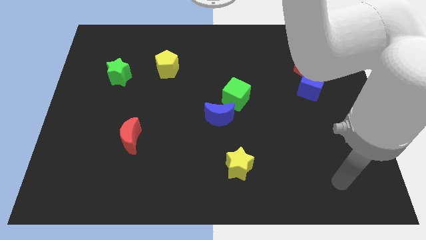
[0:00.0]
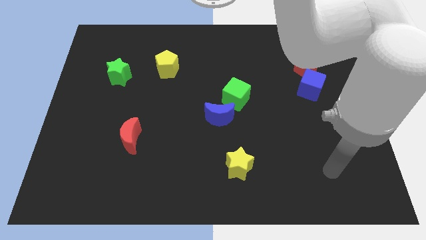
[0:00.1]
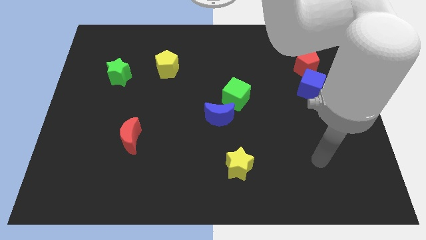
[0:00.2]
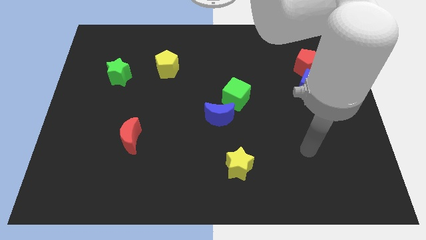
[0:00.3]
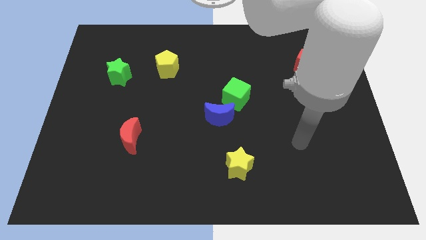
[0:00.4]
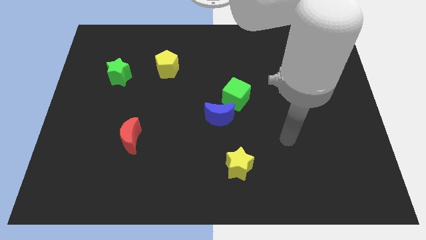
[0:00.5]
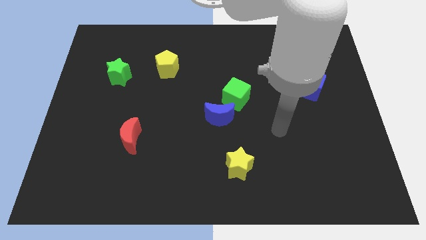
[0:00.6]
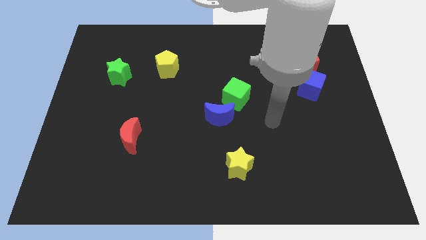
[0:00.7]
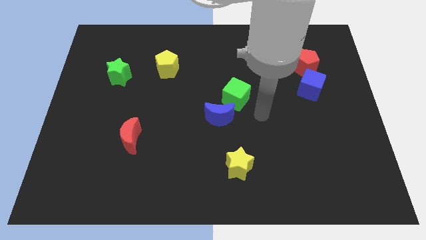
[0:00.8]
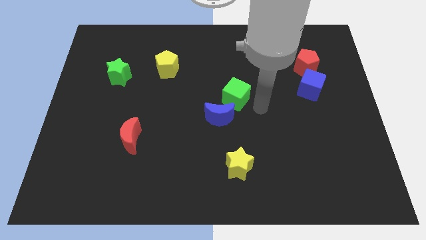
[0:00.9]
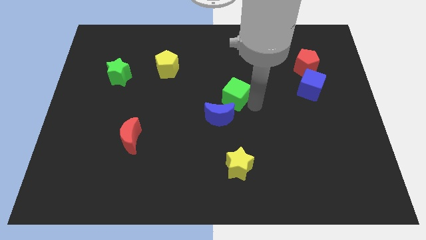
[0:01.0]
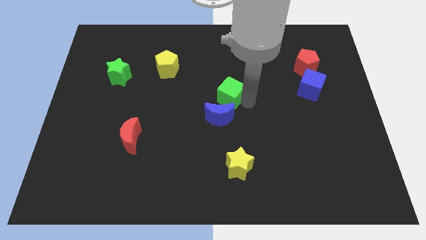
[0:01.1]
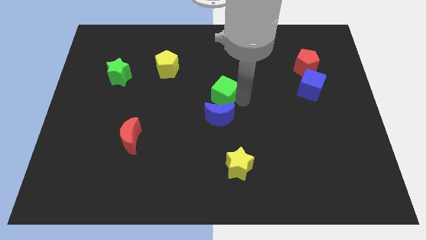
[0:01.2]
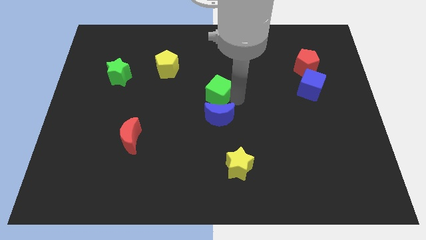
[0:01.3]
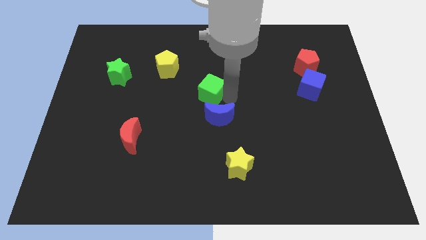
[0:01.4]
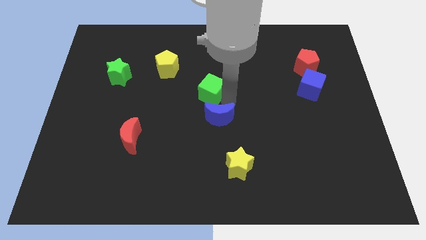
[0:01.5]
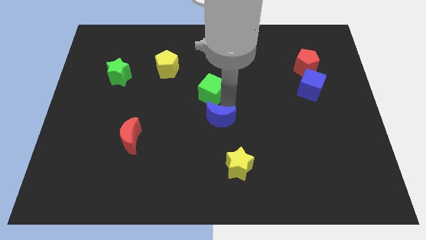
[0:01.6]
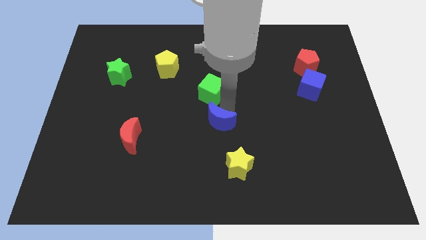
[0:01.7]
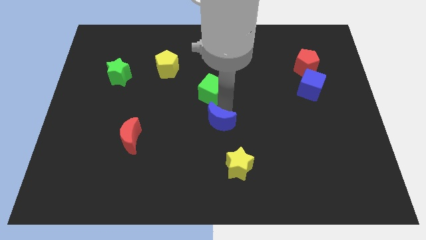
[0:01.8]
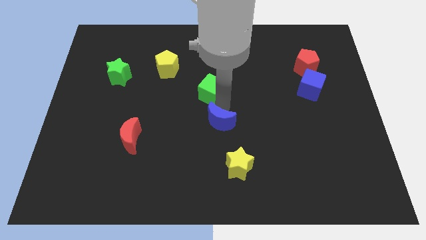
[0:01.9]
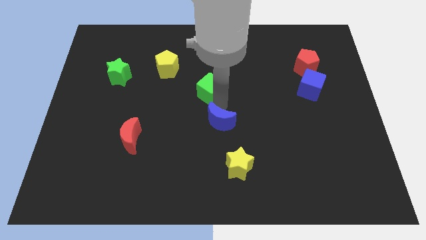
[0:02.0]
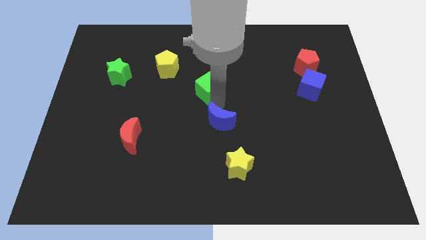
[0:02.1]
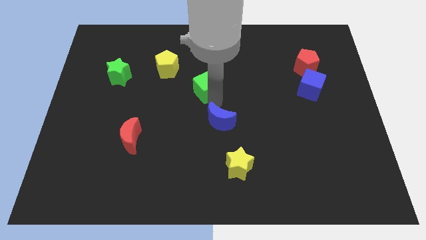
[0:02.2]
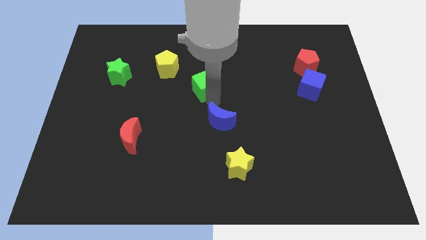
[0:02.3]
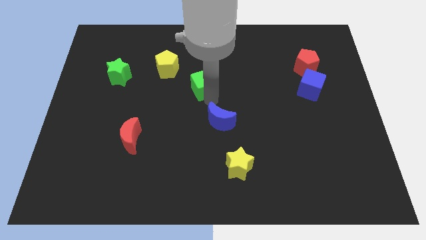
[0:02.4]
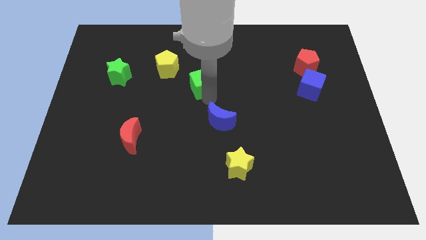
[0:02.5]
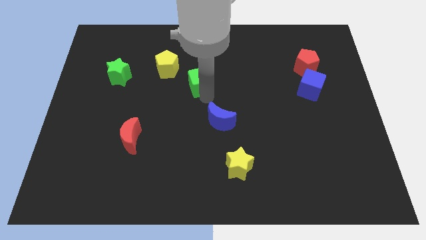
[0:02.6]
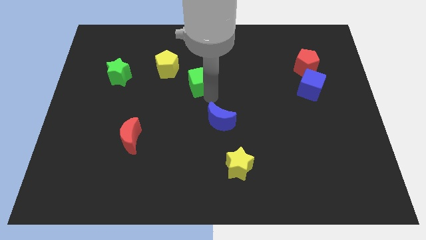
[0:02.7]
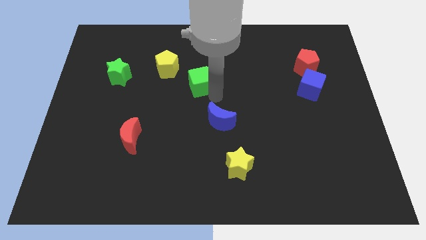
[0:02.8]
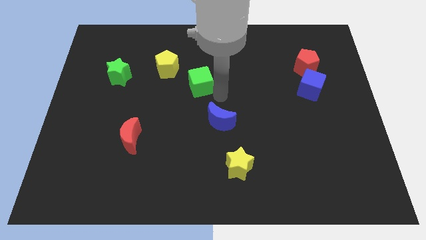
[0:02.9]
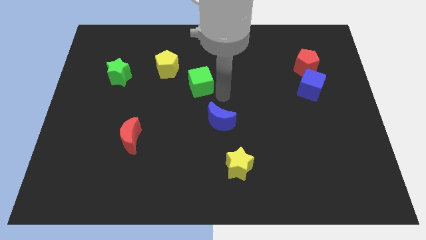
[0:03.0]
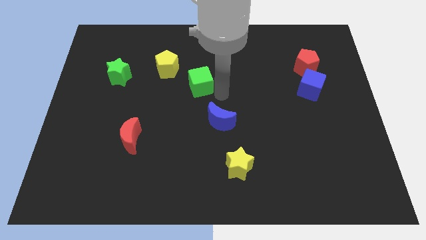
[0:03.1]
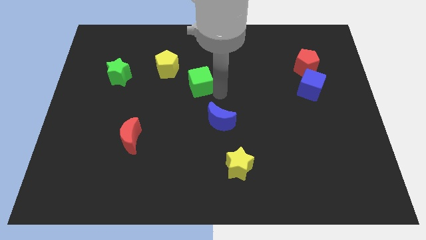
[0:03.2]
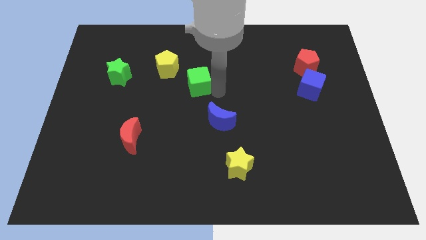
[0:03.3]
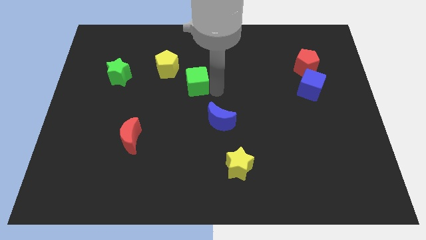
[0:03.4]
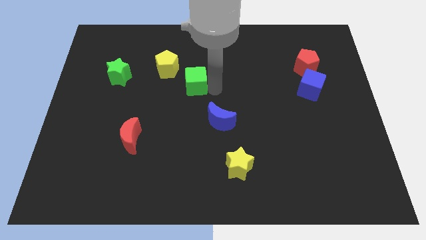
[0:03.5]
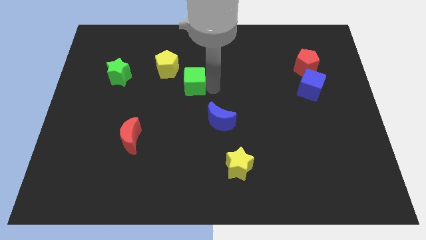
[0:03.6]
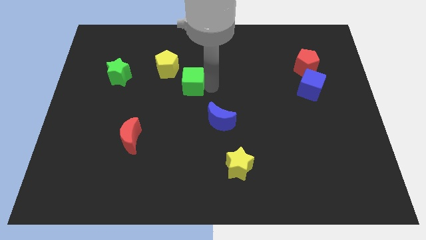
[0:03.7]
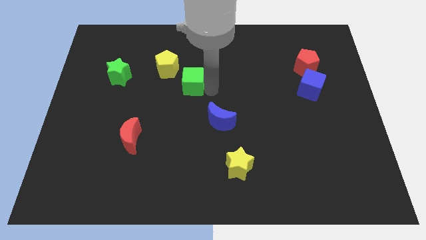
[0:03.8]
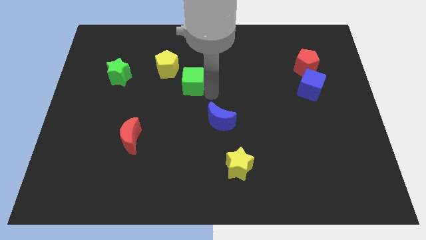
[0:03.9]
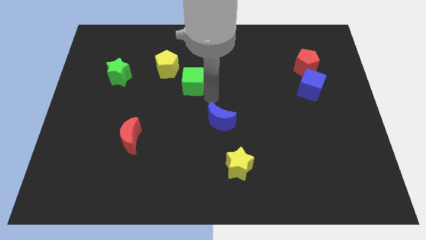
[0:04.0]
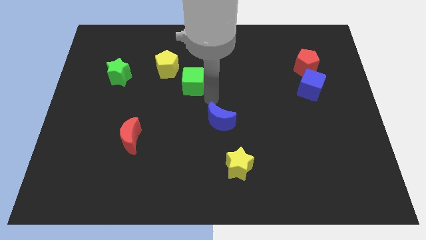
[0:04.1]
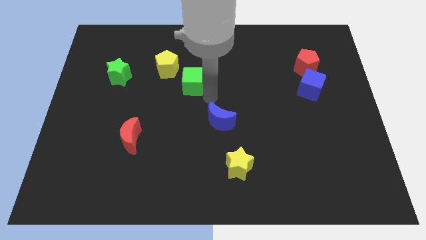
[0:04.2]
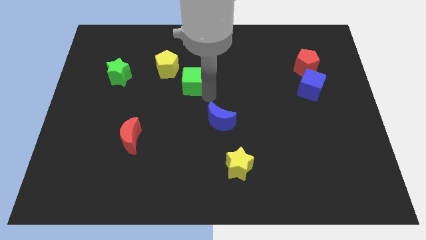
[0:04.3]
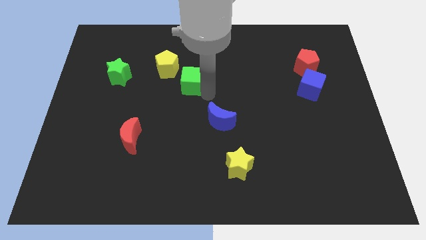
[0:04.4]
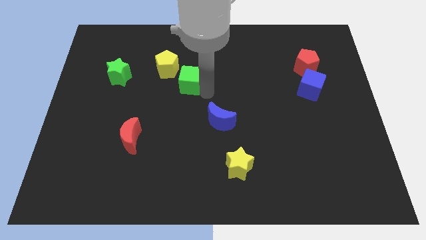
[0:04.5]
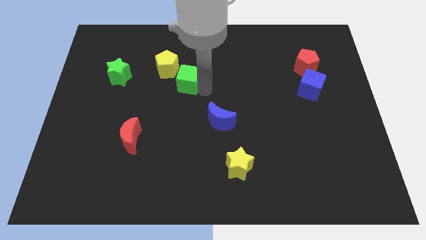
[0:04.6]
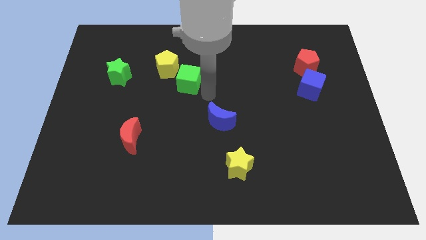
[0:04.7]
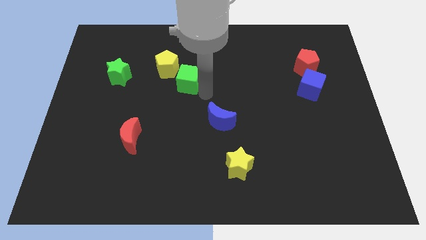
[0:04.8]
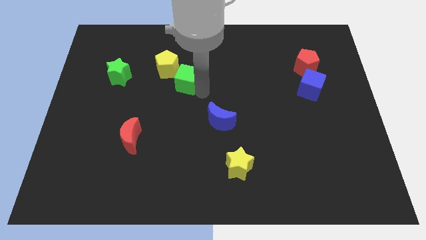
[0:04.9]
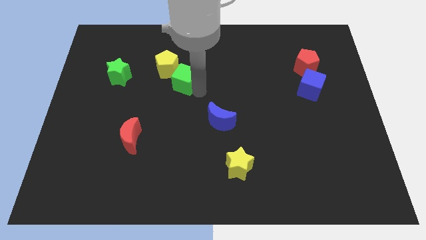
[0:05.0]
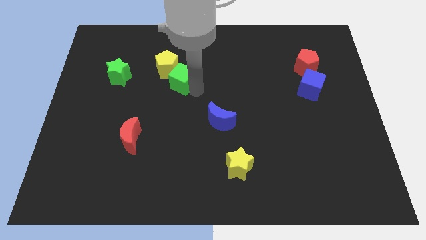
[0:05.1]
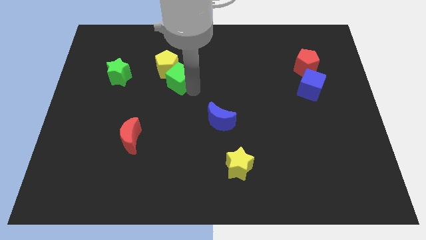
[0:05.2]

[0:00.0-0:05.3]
put the green cube close to the yellow pentagon

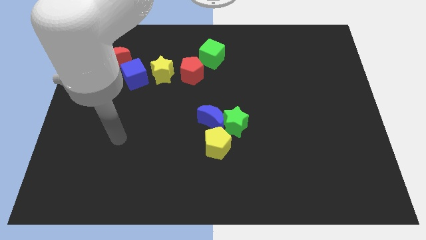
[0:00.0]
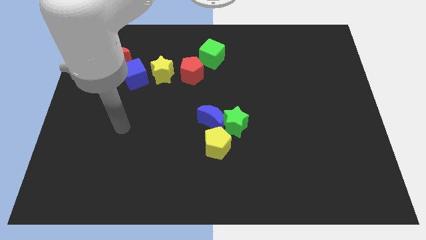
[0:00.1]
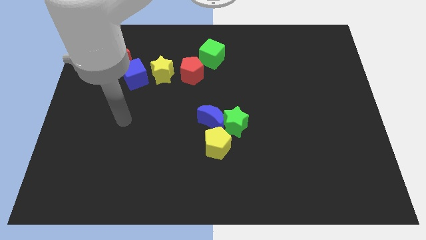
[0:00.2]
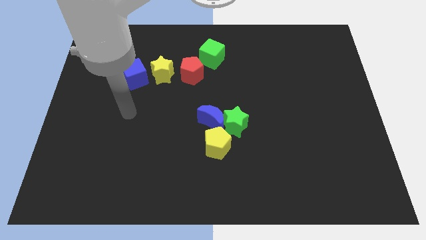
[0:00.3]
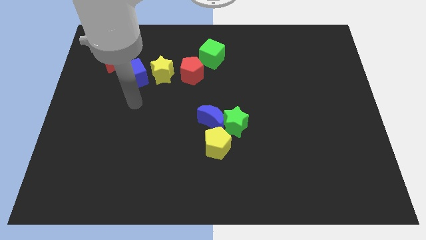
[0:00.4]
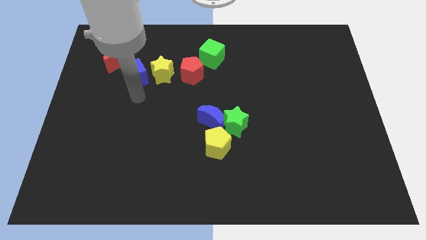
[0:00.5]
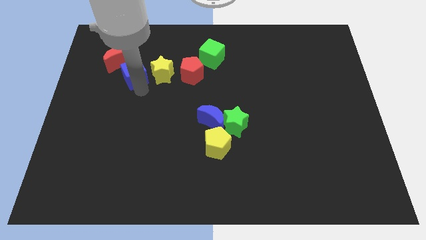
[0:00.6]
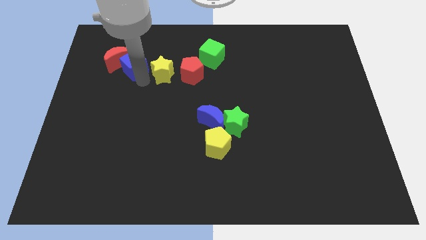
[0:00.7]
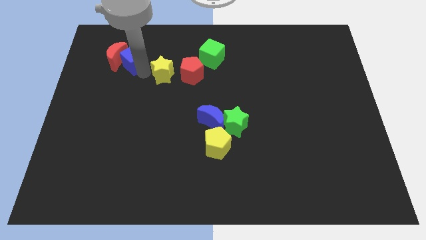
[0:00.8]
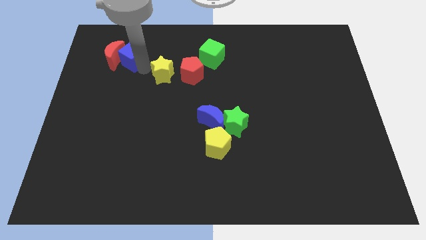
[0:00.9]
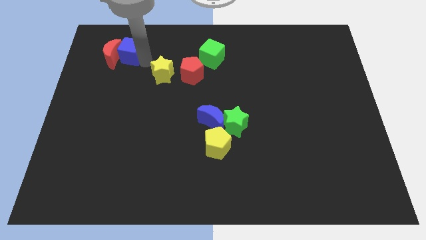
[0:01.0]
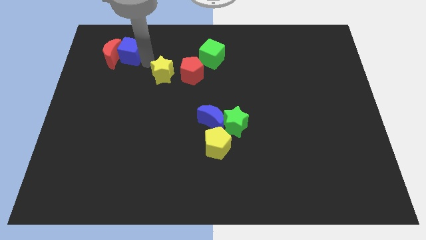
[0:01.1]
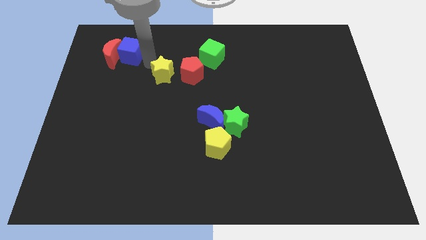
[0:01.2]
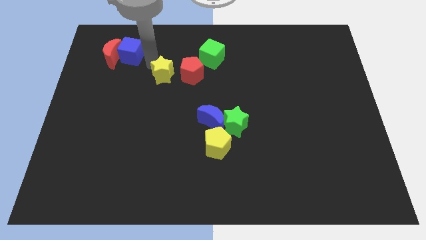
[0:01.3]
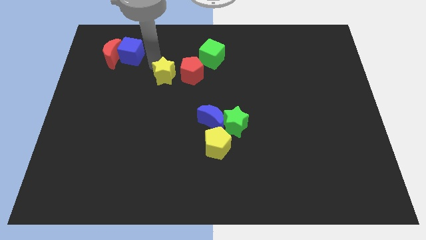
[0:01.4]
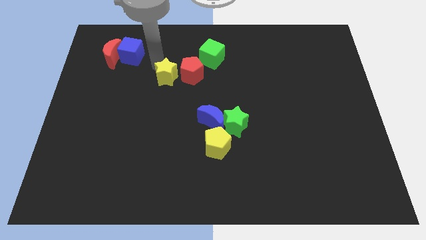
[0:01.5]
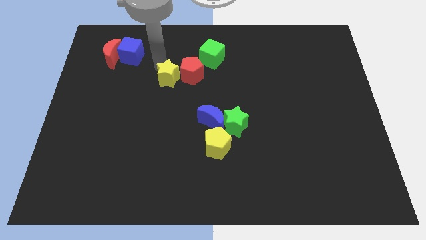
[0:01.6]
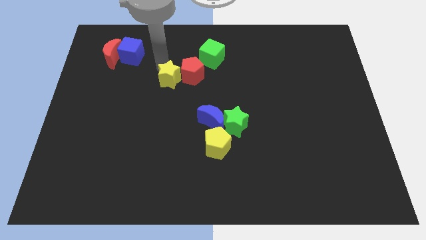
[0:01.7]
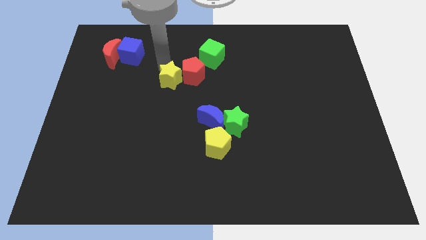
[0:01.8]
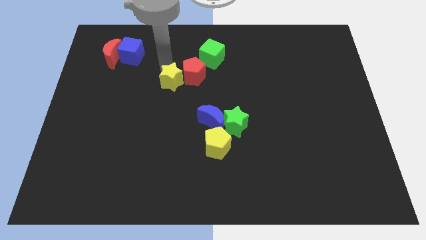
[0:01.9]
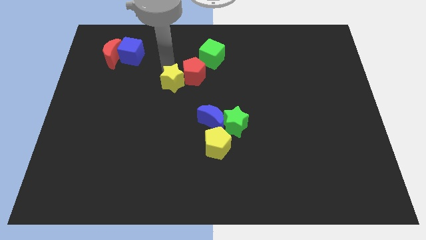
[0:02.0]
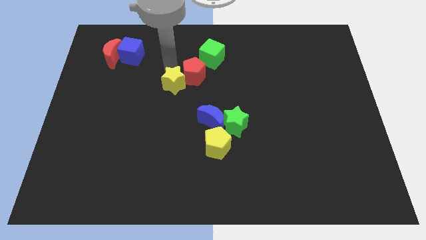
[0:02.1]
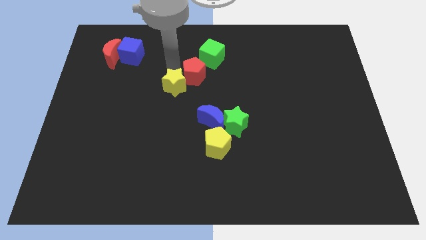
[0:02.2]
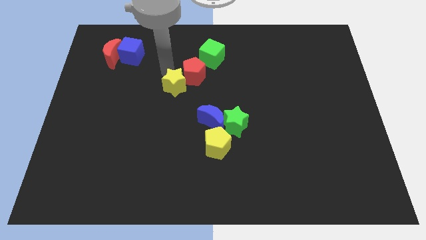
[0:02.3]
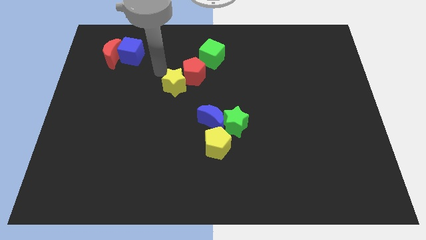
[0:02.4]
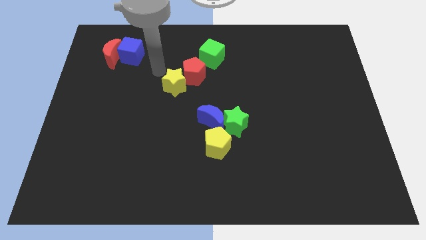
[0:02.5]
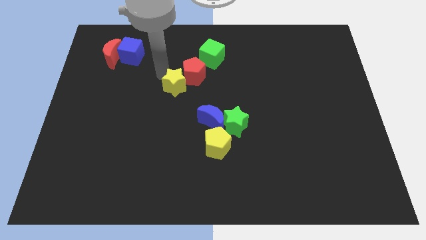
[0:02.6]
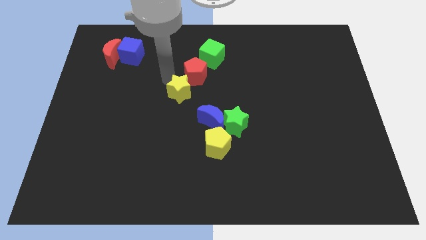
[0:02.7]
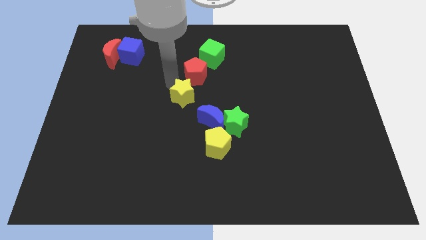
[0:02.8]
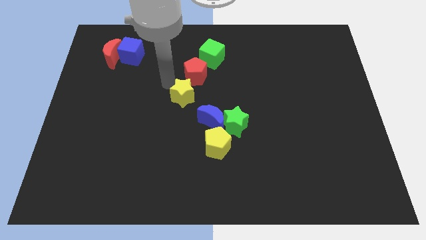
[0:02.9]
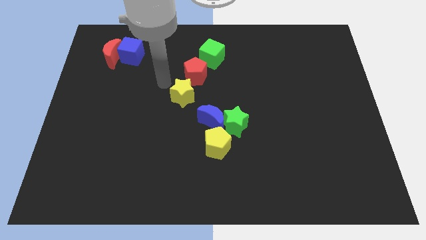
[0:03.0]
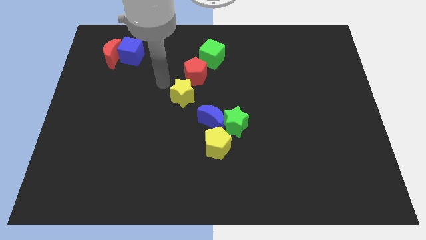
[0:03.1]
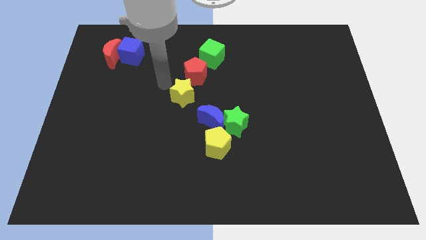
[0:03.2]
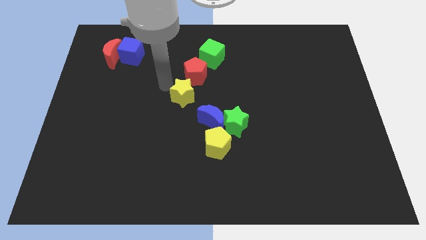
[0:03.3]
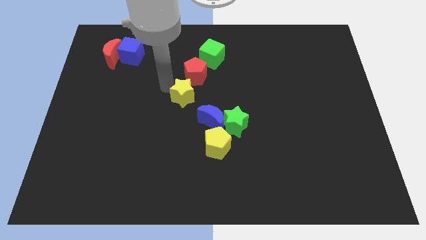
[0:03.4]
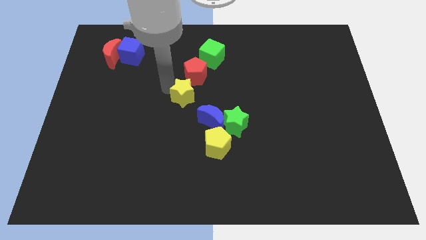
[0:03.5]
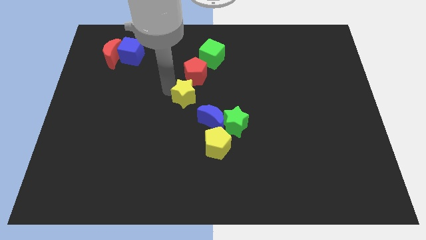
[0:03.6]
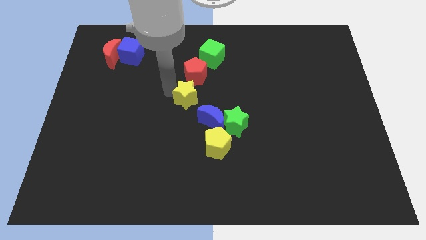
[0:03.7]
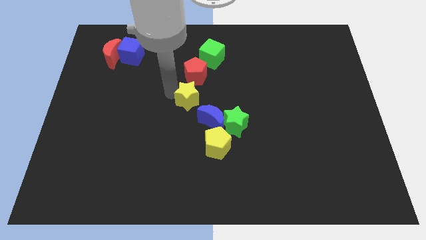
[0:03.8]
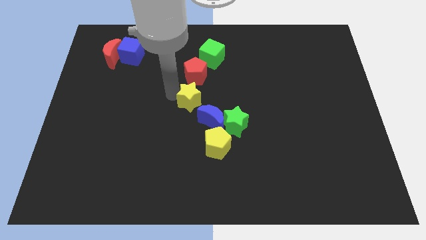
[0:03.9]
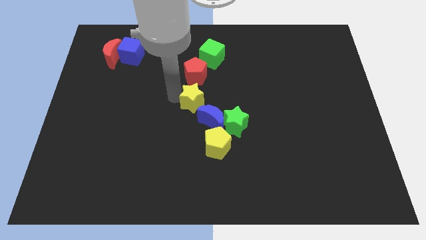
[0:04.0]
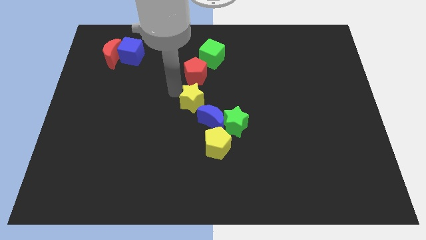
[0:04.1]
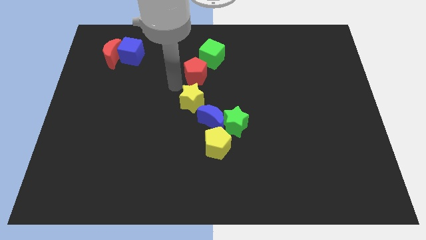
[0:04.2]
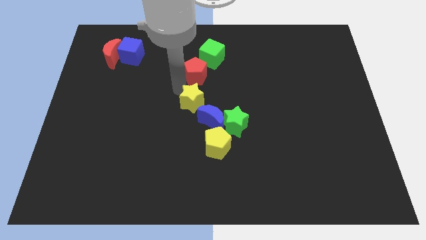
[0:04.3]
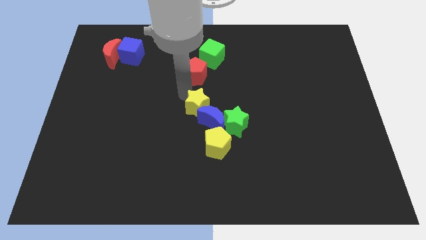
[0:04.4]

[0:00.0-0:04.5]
put the yellow star to the blue moon
